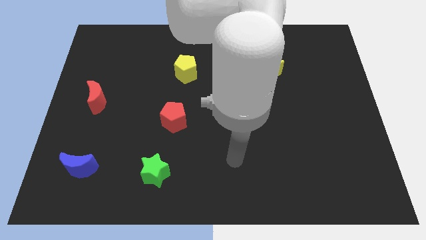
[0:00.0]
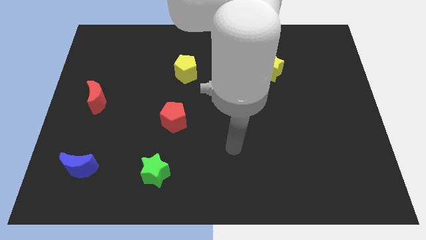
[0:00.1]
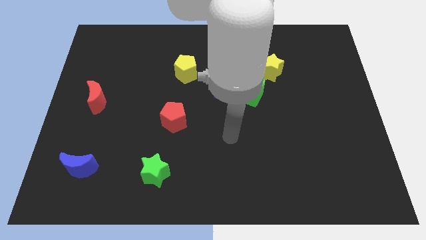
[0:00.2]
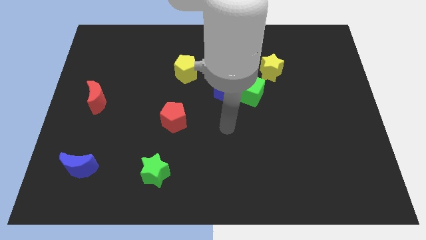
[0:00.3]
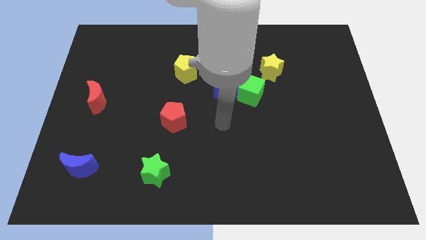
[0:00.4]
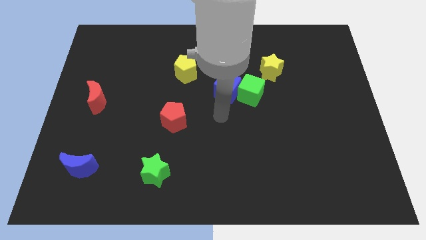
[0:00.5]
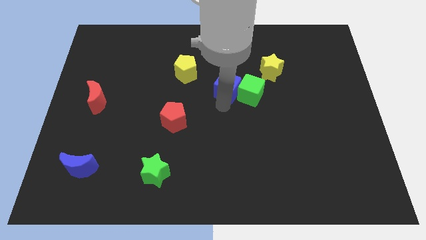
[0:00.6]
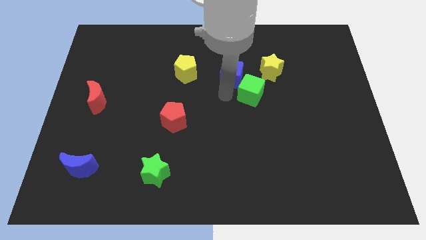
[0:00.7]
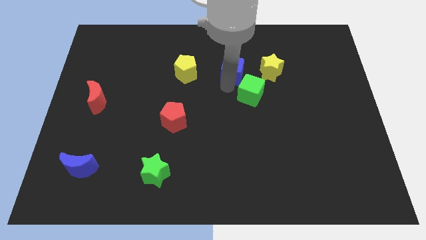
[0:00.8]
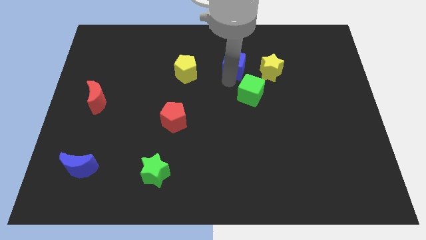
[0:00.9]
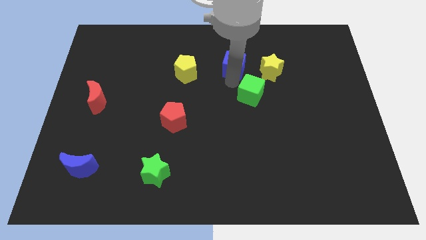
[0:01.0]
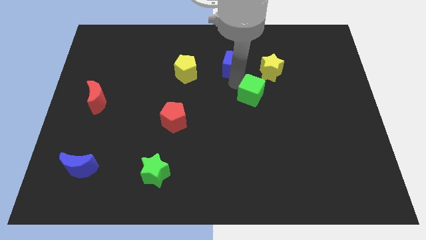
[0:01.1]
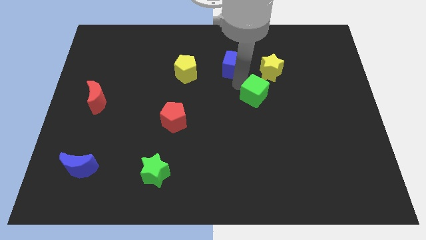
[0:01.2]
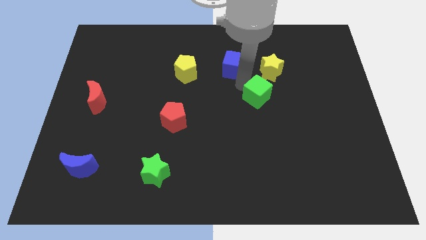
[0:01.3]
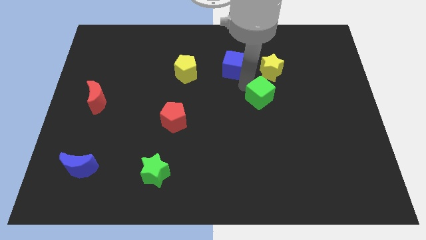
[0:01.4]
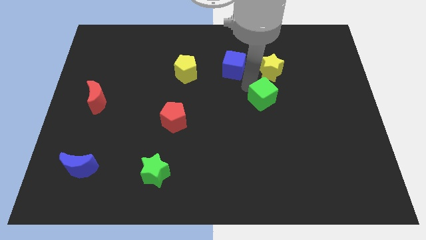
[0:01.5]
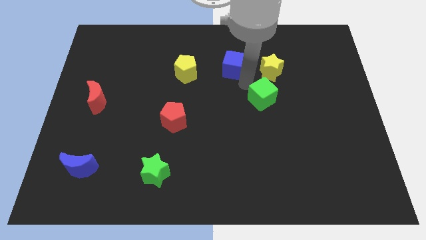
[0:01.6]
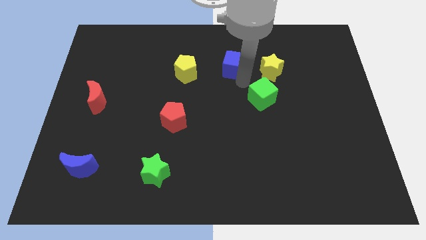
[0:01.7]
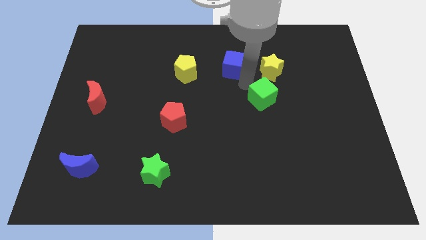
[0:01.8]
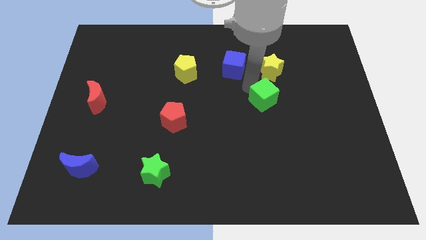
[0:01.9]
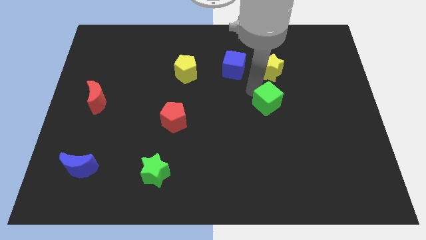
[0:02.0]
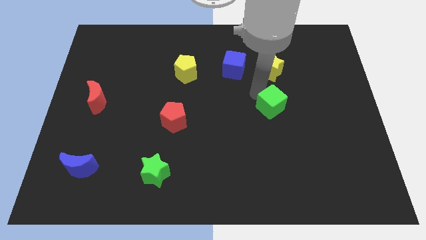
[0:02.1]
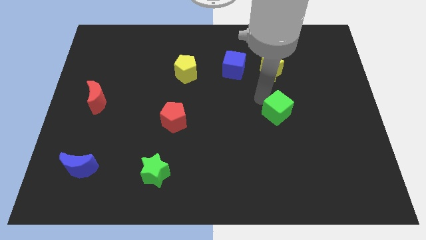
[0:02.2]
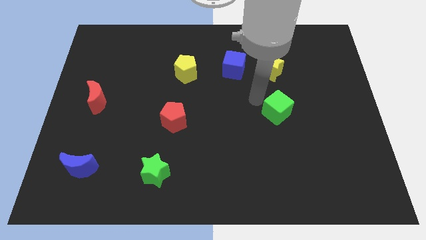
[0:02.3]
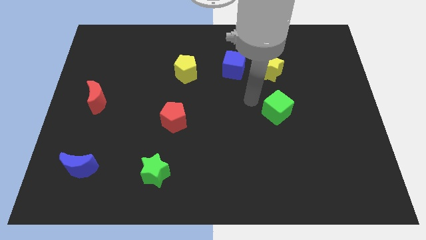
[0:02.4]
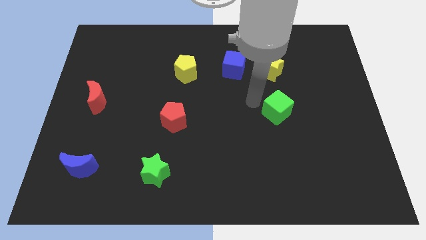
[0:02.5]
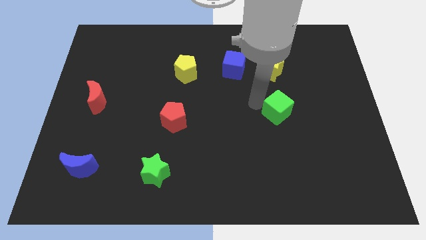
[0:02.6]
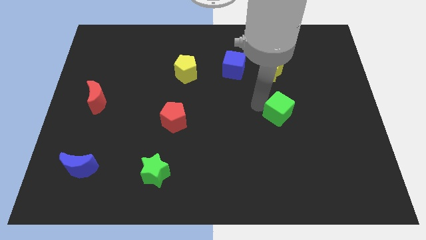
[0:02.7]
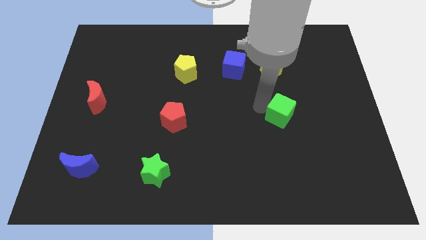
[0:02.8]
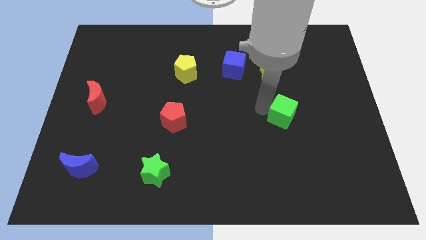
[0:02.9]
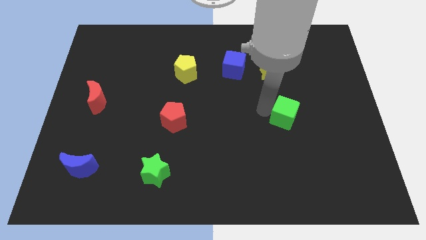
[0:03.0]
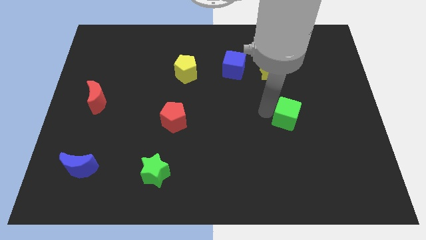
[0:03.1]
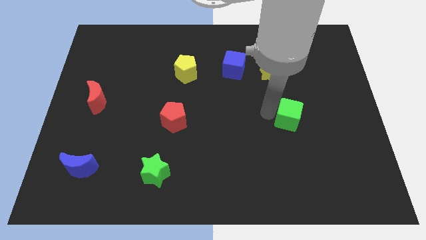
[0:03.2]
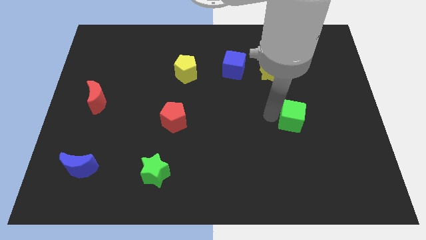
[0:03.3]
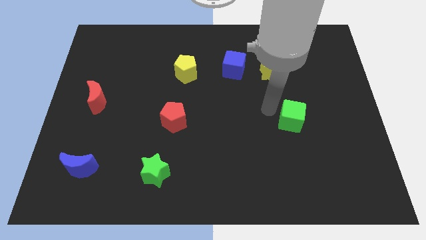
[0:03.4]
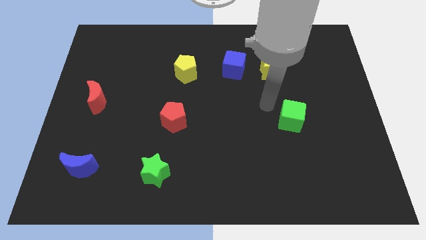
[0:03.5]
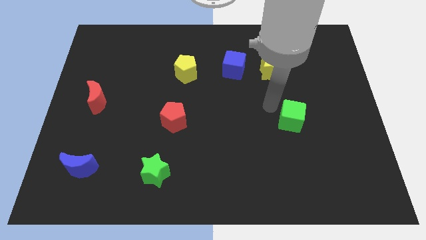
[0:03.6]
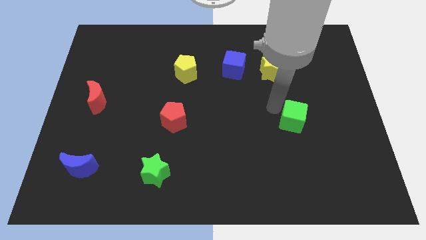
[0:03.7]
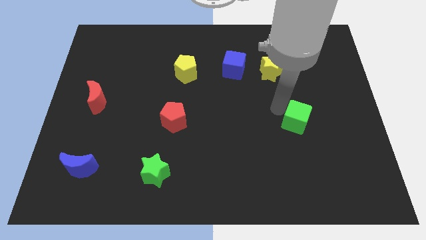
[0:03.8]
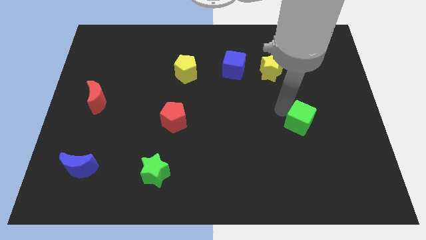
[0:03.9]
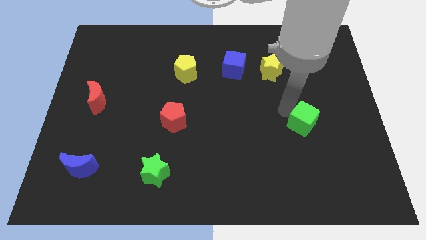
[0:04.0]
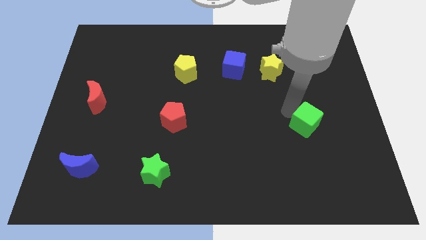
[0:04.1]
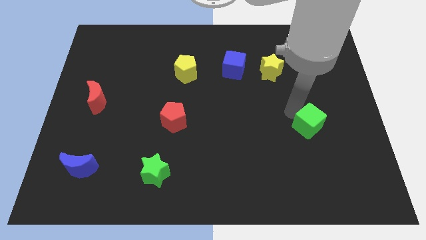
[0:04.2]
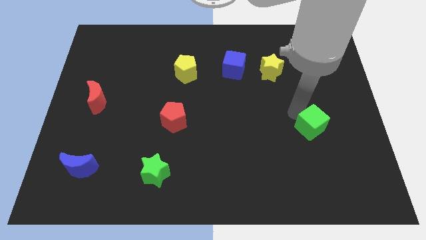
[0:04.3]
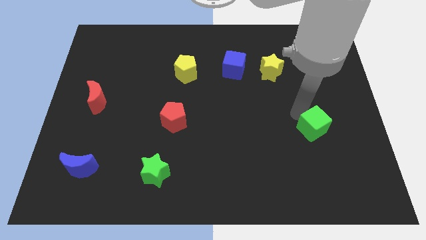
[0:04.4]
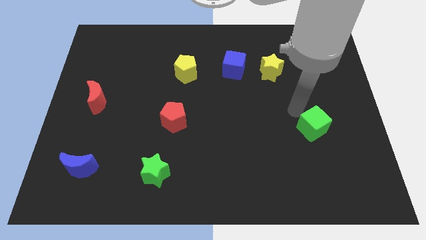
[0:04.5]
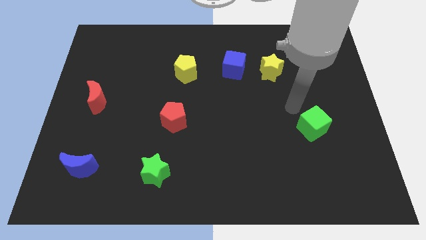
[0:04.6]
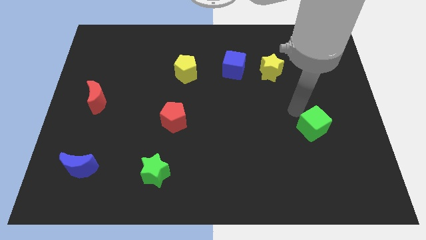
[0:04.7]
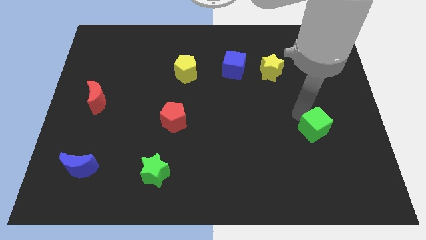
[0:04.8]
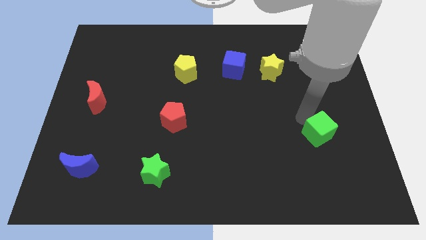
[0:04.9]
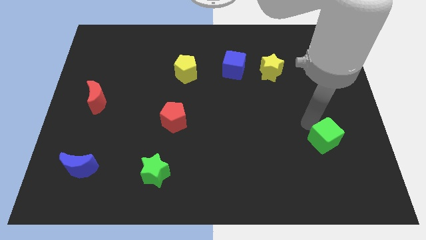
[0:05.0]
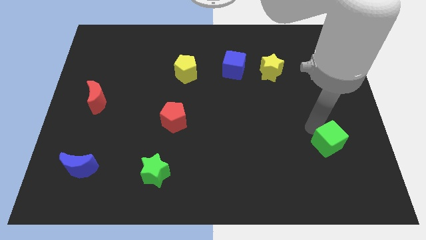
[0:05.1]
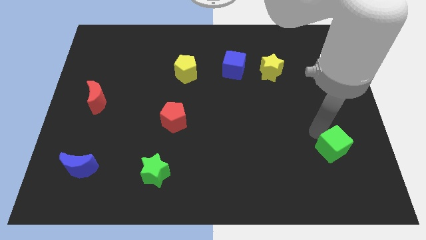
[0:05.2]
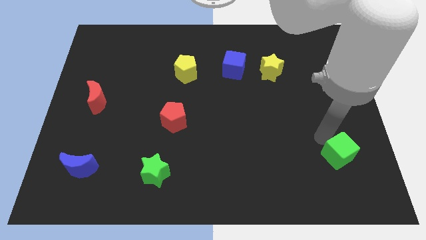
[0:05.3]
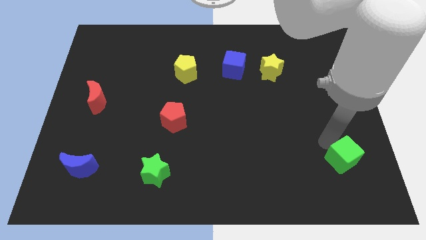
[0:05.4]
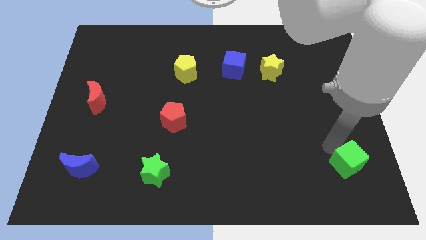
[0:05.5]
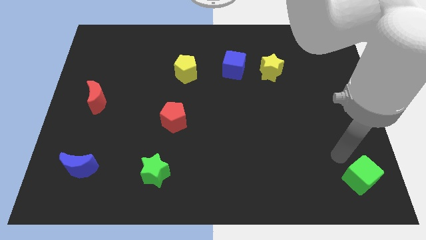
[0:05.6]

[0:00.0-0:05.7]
slide the green cube to the bottom right corner

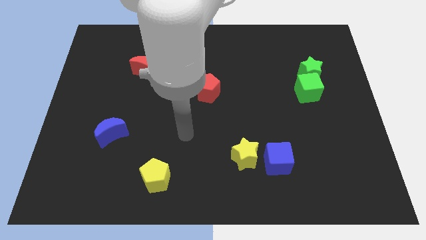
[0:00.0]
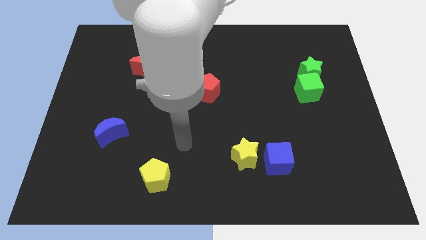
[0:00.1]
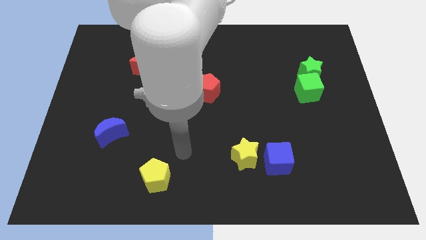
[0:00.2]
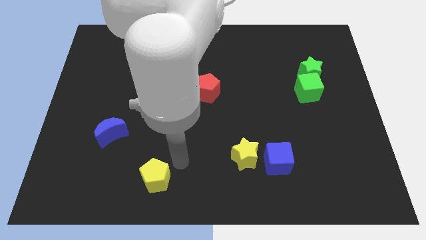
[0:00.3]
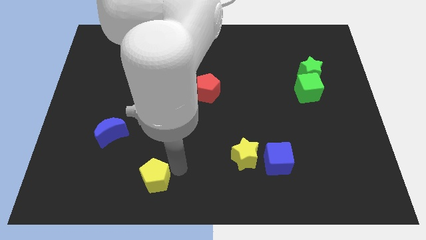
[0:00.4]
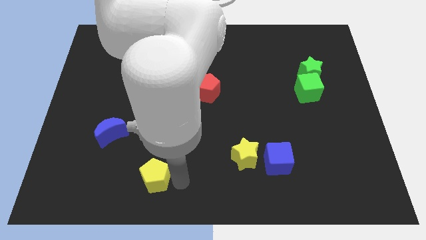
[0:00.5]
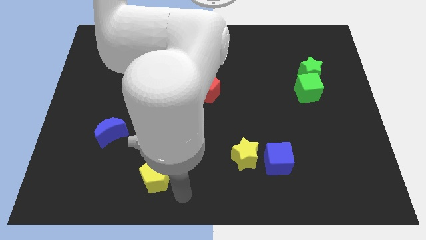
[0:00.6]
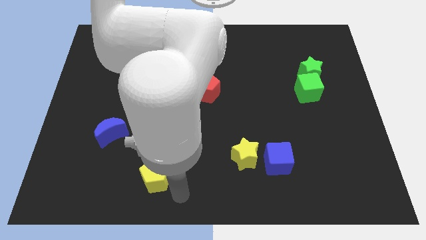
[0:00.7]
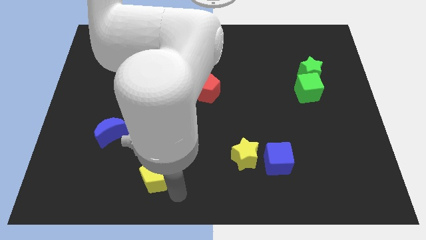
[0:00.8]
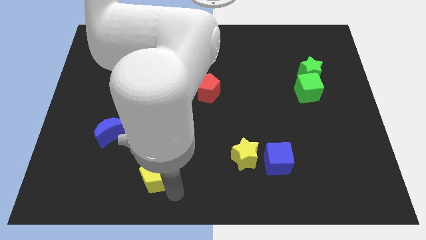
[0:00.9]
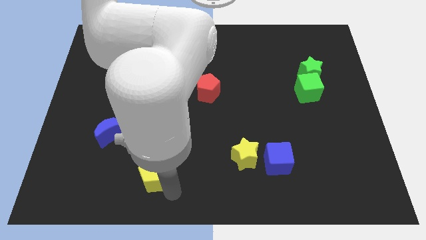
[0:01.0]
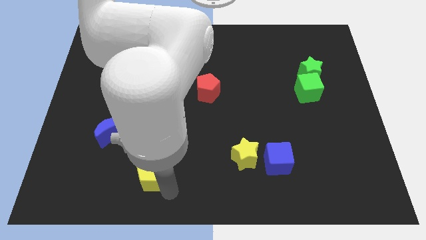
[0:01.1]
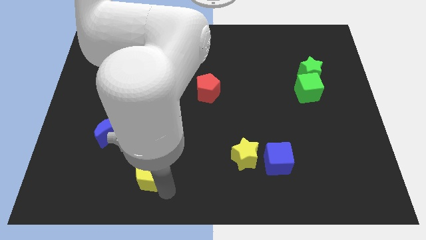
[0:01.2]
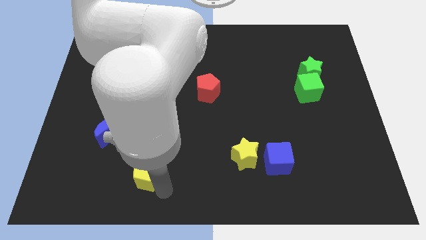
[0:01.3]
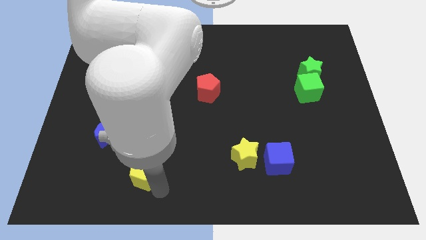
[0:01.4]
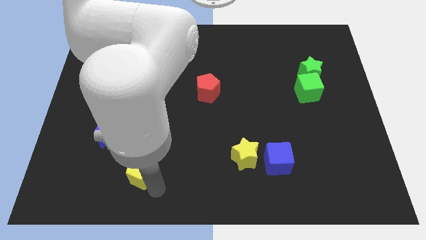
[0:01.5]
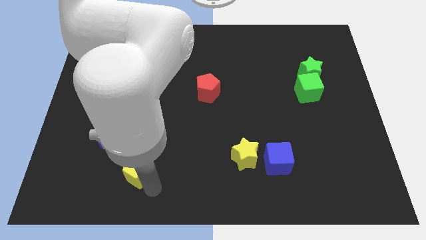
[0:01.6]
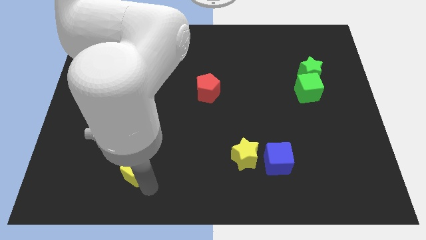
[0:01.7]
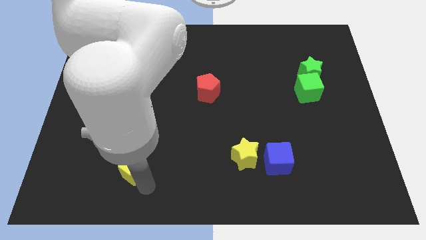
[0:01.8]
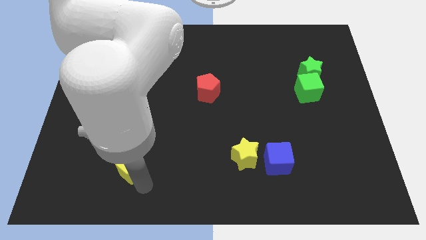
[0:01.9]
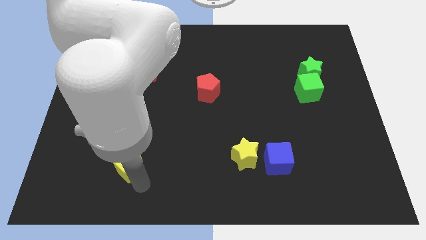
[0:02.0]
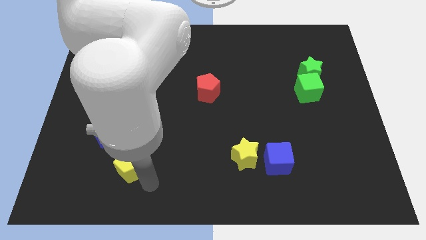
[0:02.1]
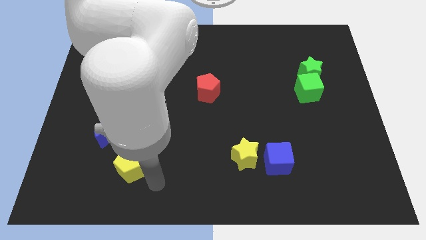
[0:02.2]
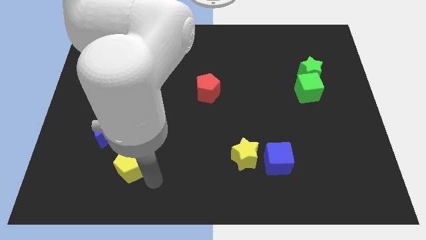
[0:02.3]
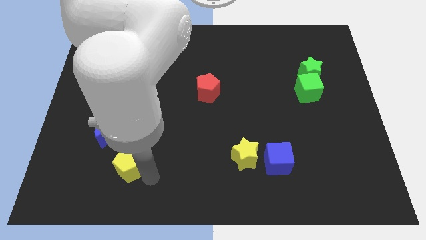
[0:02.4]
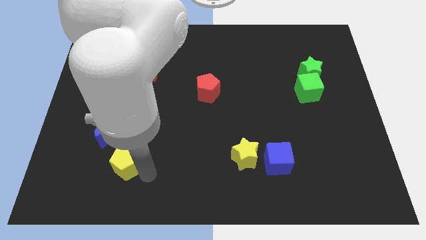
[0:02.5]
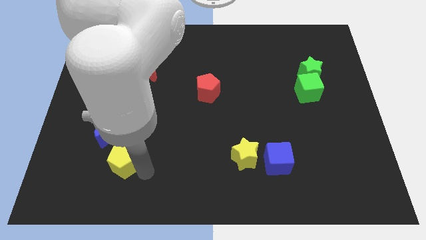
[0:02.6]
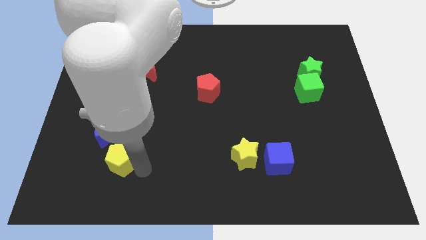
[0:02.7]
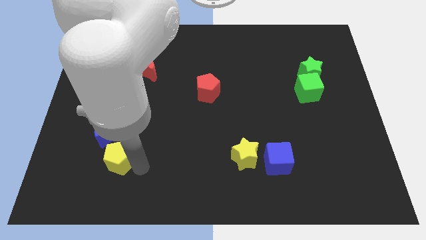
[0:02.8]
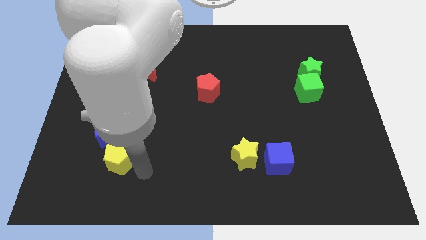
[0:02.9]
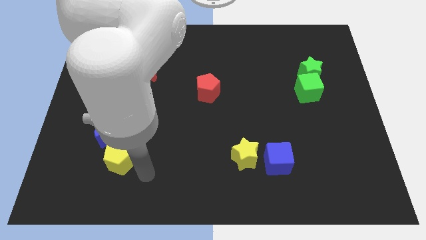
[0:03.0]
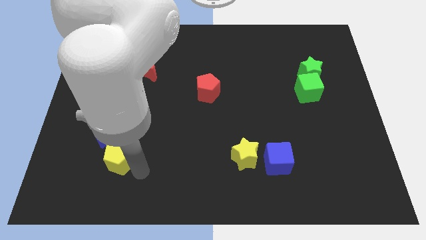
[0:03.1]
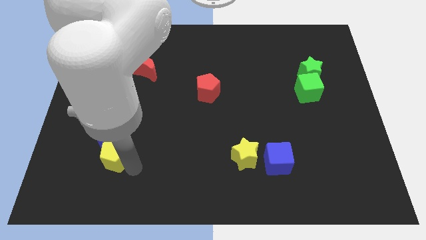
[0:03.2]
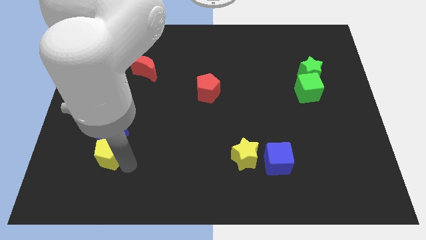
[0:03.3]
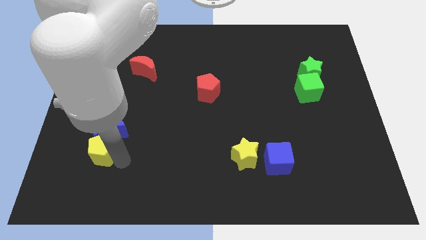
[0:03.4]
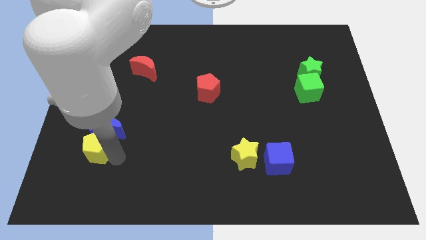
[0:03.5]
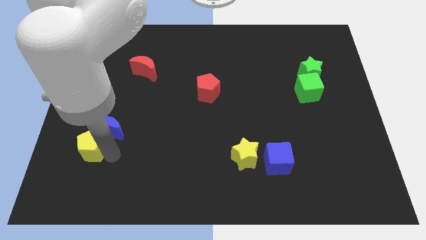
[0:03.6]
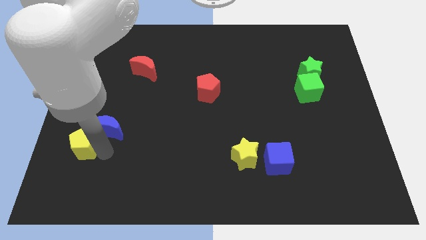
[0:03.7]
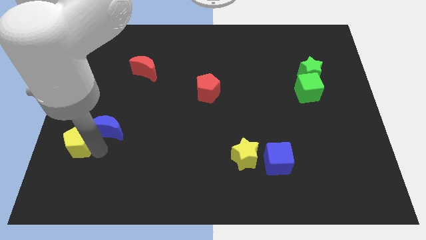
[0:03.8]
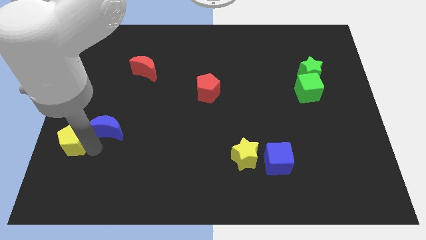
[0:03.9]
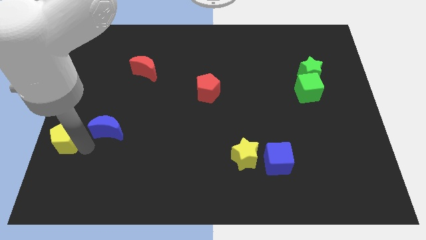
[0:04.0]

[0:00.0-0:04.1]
put the yellow pentagon to the left side
